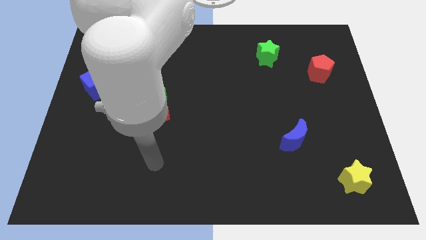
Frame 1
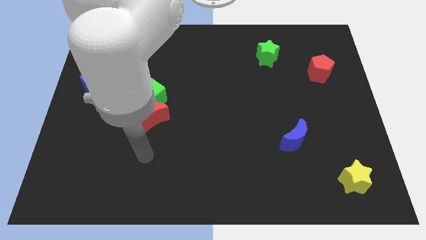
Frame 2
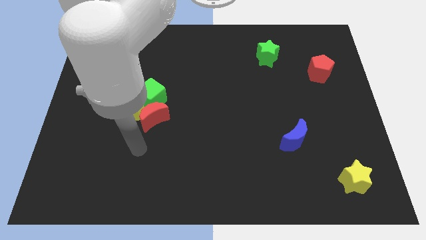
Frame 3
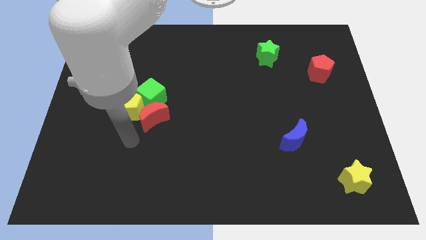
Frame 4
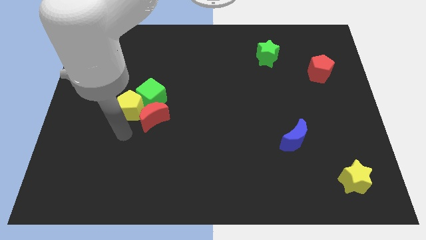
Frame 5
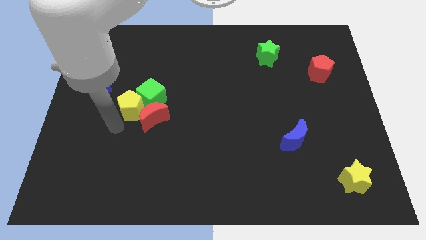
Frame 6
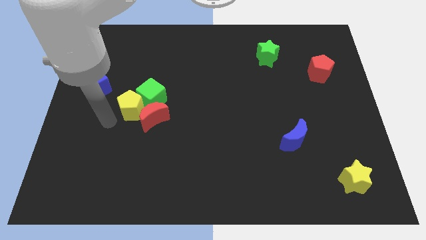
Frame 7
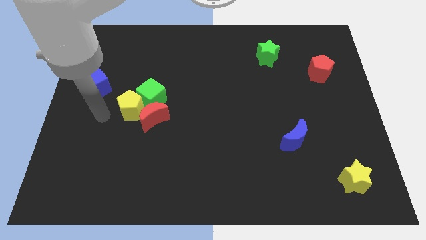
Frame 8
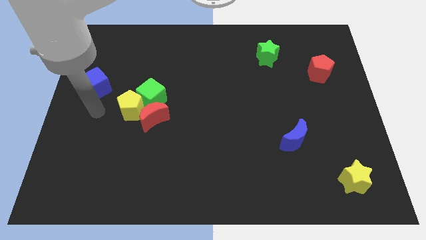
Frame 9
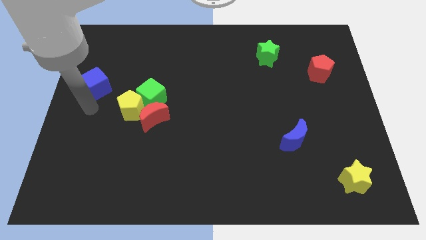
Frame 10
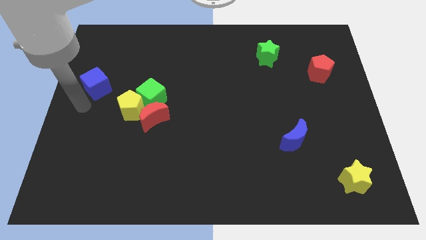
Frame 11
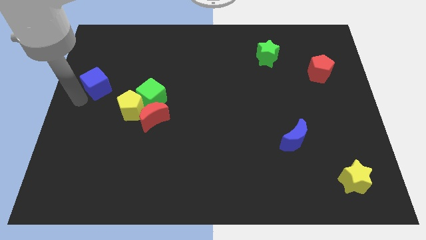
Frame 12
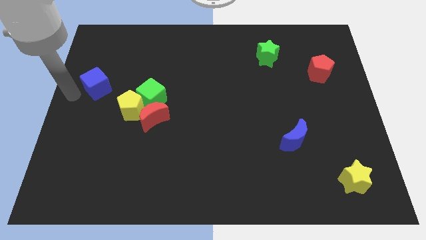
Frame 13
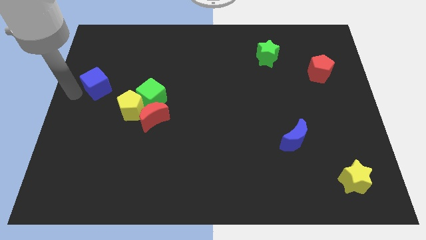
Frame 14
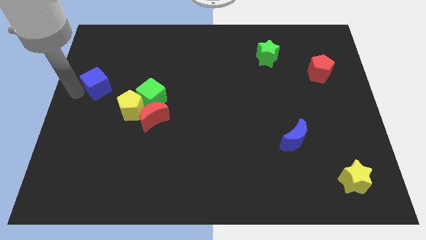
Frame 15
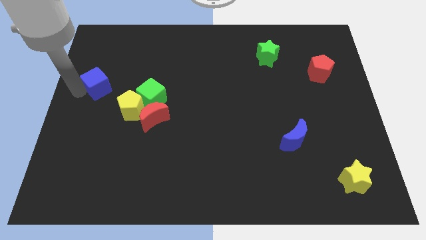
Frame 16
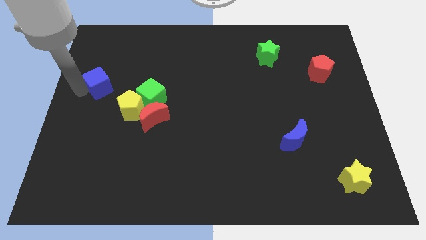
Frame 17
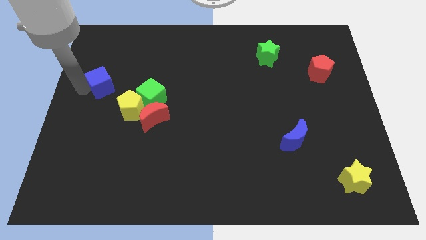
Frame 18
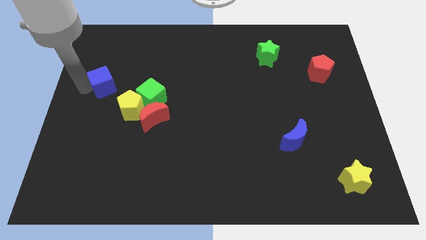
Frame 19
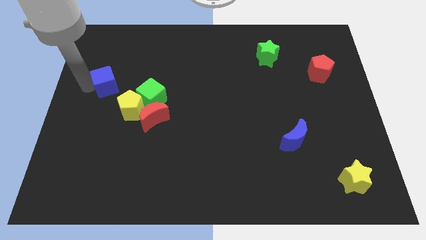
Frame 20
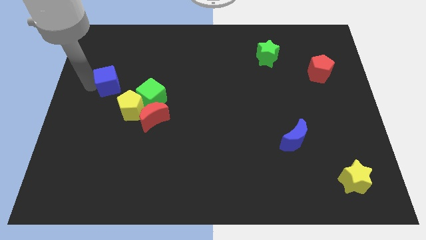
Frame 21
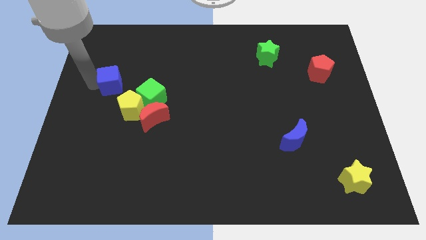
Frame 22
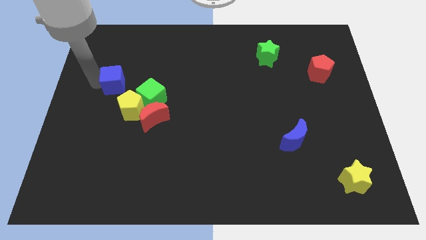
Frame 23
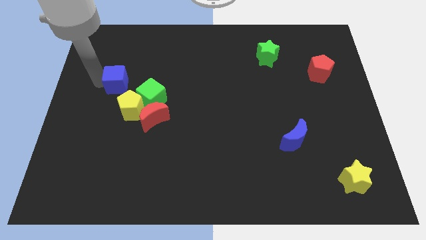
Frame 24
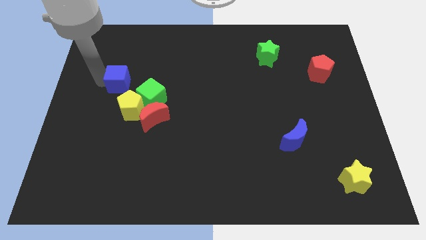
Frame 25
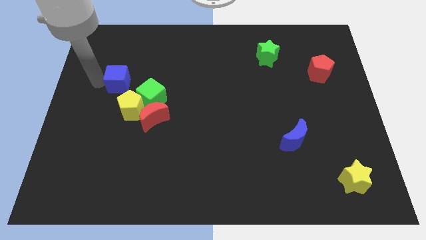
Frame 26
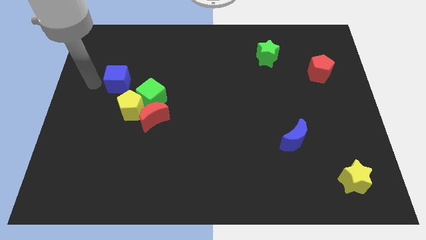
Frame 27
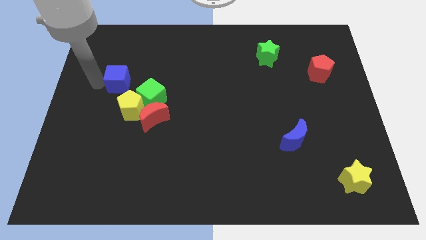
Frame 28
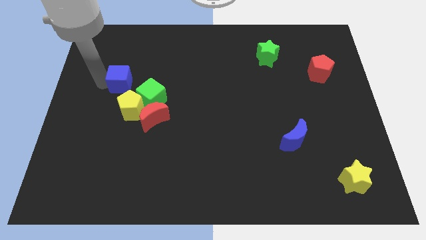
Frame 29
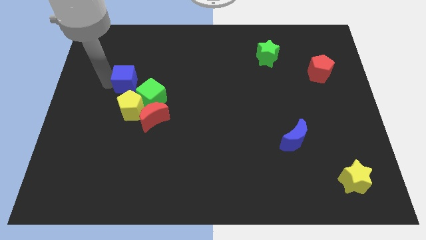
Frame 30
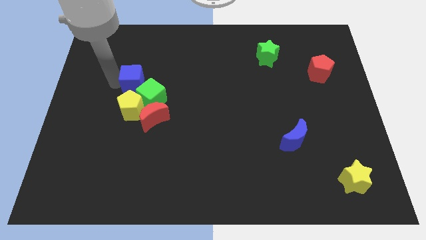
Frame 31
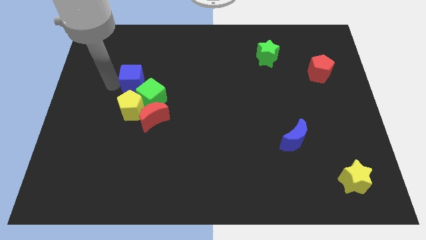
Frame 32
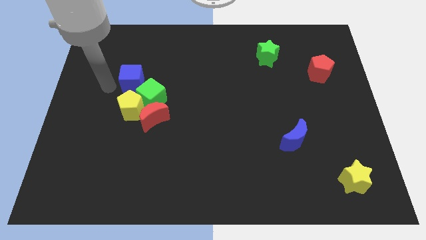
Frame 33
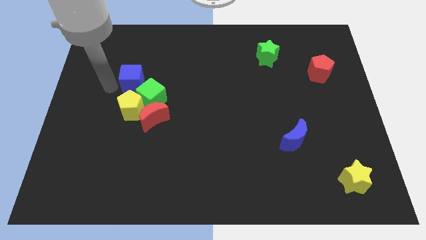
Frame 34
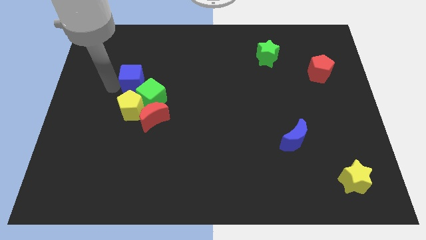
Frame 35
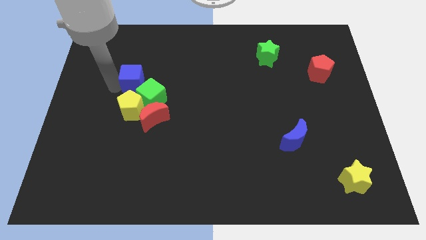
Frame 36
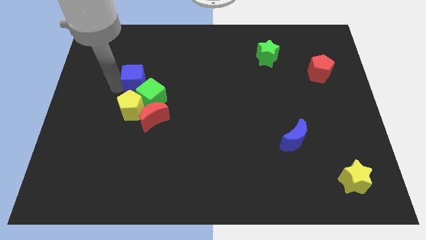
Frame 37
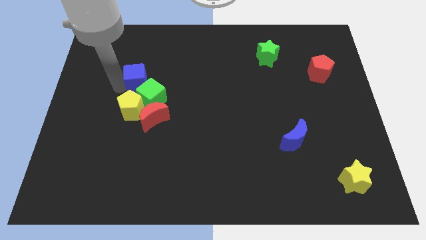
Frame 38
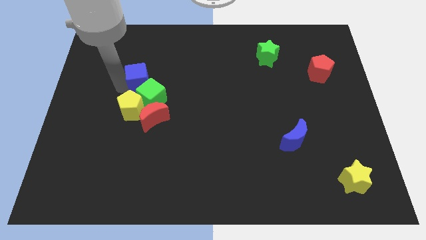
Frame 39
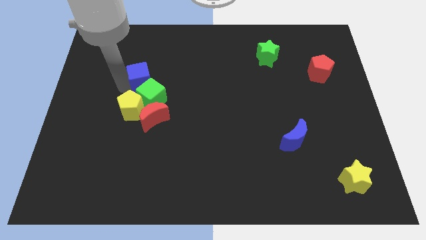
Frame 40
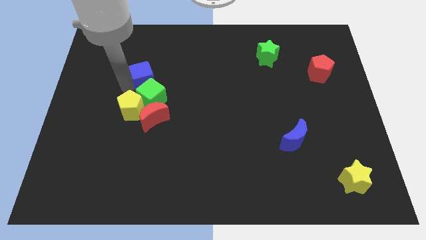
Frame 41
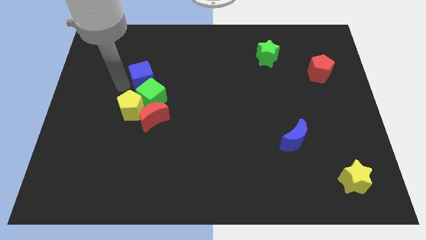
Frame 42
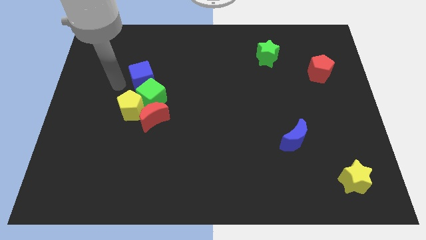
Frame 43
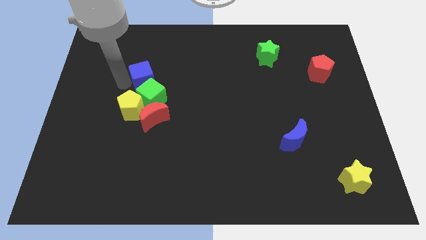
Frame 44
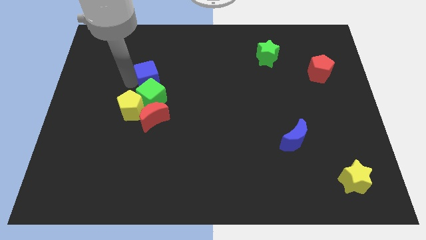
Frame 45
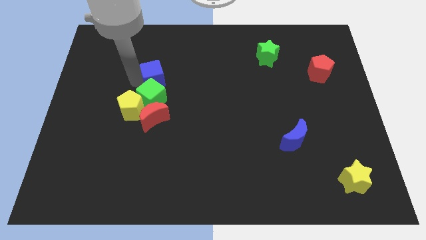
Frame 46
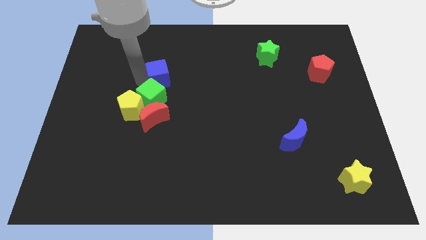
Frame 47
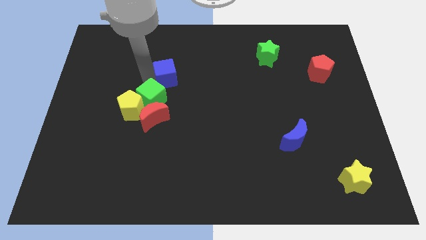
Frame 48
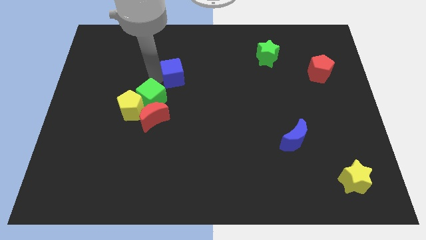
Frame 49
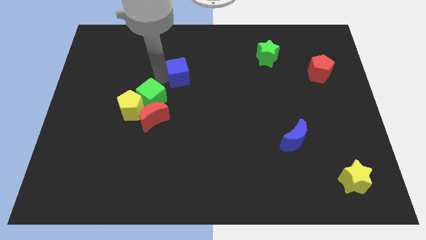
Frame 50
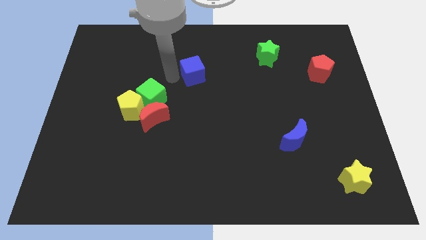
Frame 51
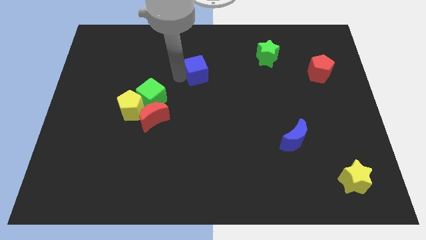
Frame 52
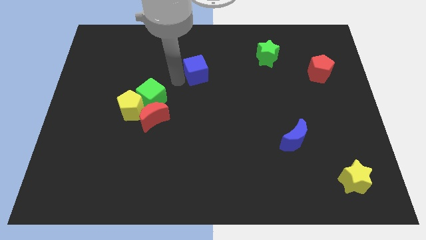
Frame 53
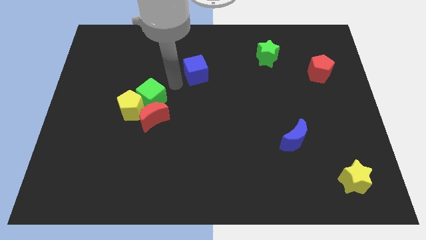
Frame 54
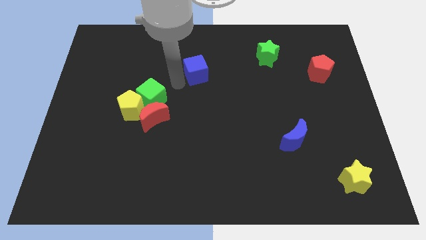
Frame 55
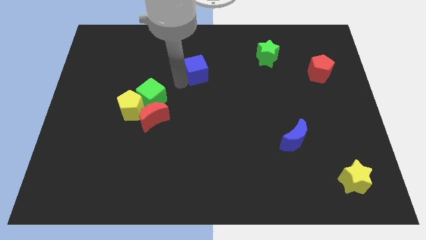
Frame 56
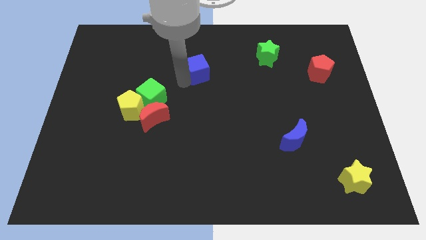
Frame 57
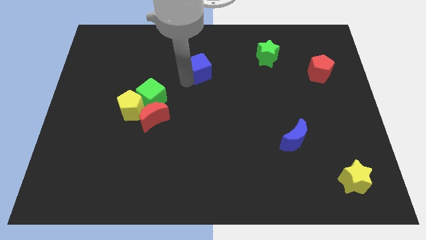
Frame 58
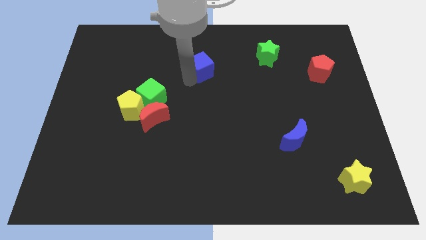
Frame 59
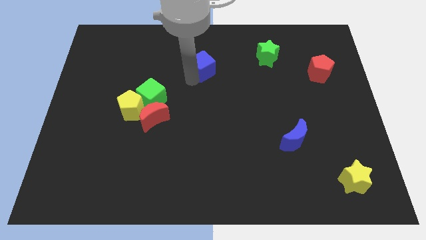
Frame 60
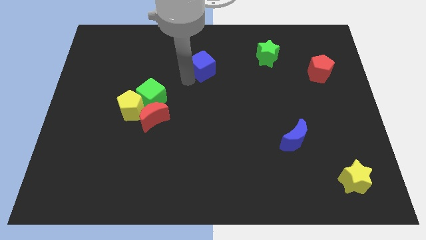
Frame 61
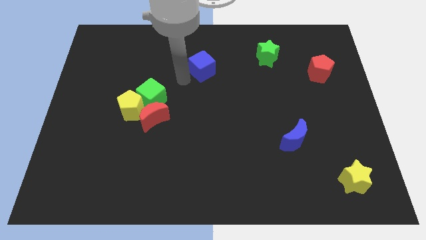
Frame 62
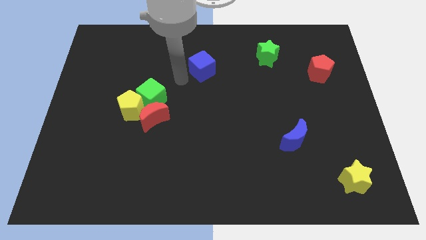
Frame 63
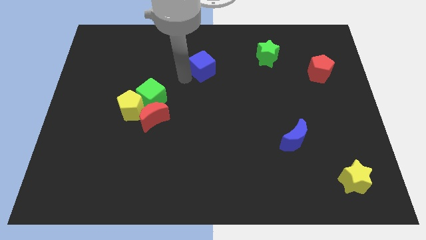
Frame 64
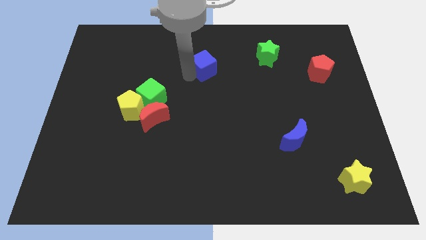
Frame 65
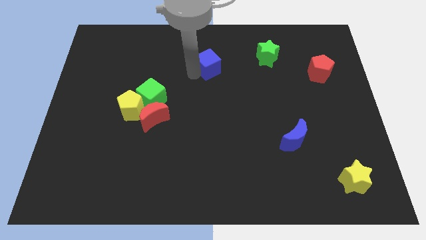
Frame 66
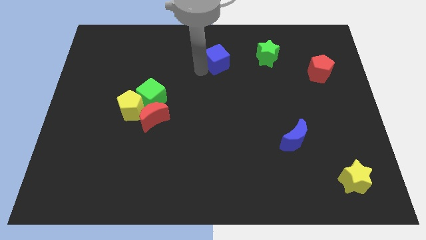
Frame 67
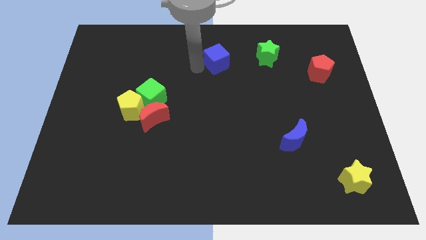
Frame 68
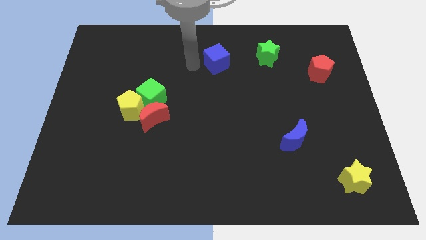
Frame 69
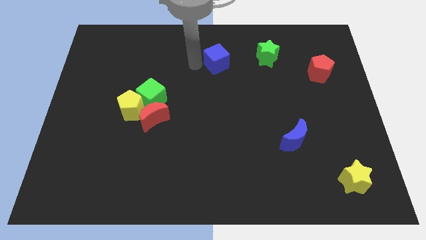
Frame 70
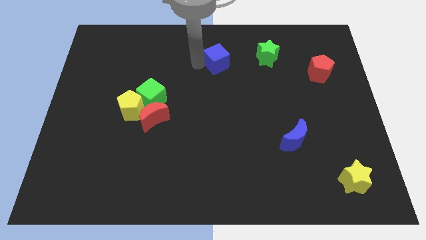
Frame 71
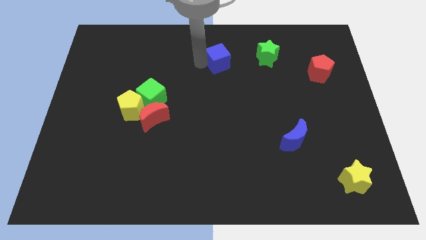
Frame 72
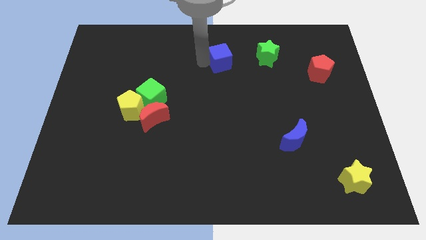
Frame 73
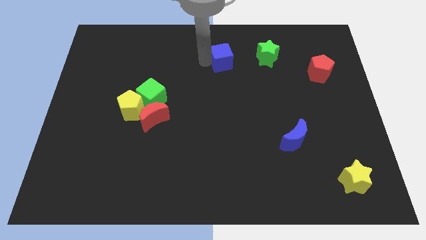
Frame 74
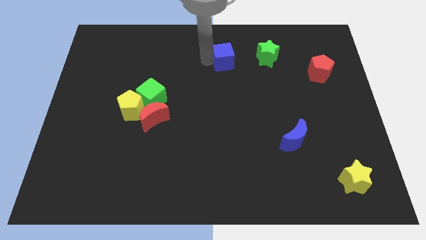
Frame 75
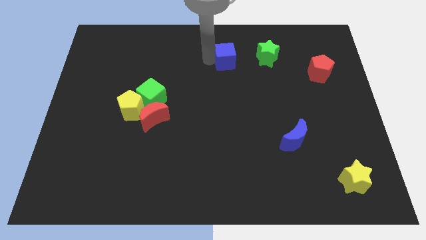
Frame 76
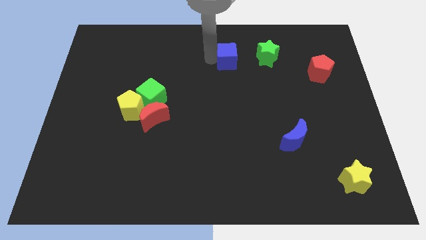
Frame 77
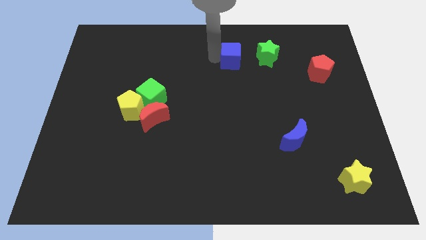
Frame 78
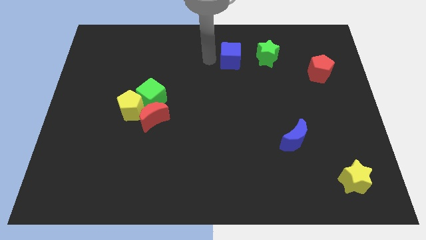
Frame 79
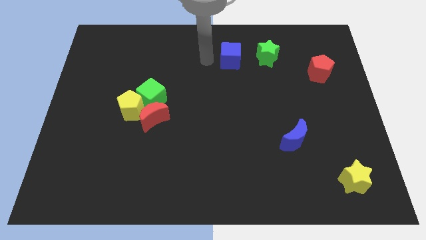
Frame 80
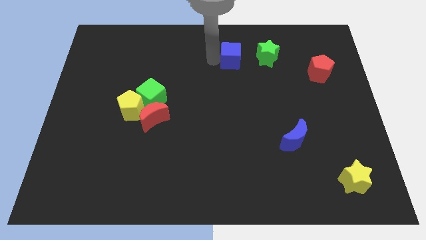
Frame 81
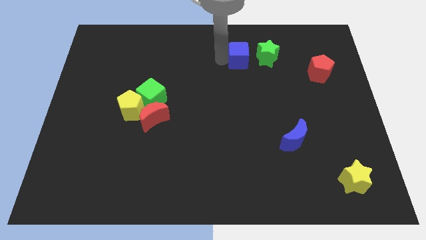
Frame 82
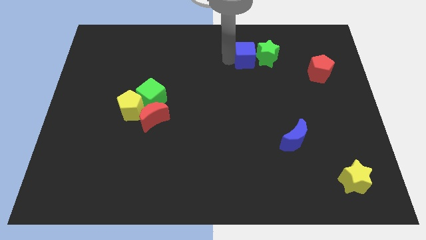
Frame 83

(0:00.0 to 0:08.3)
put the blue cube close to the green star
